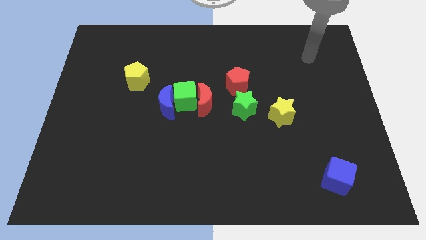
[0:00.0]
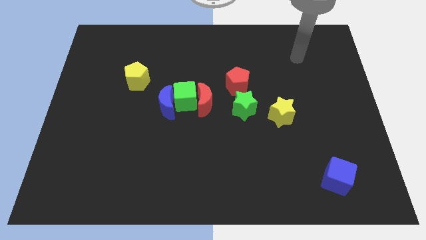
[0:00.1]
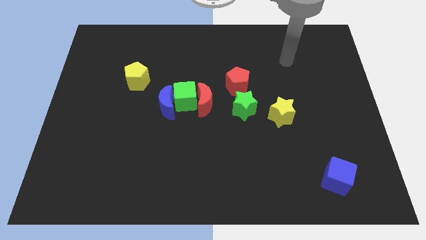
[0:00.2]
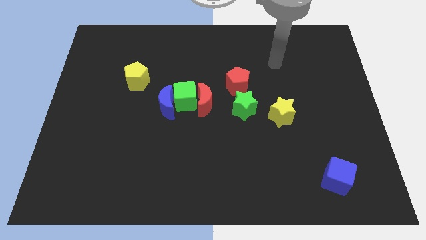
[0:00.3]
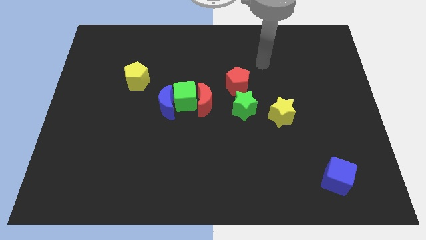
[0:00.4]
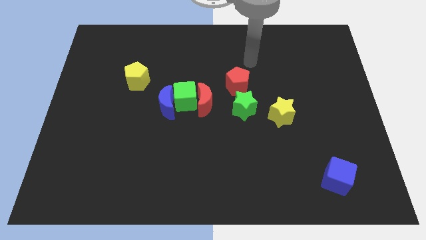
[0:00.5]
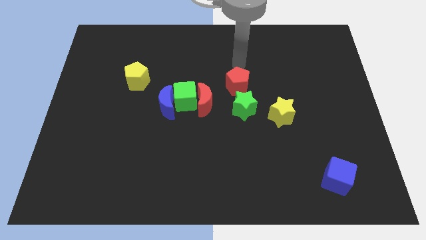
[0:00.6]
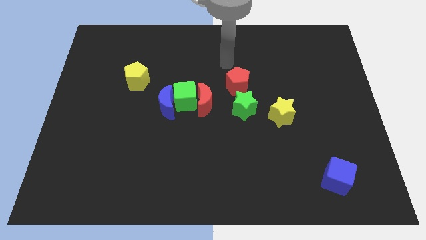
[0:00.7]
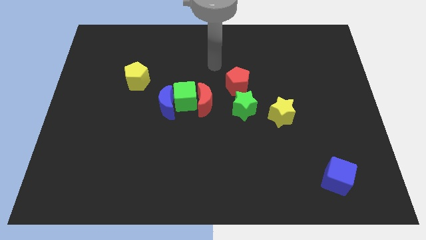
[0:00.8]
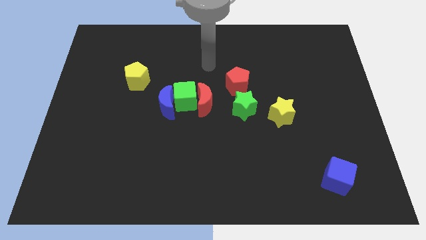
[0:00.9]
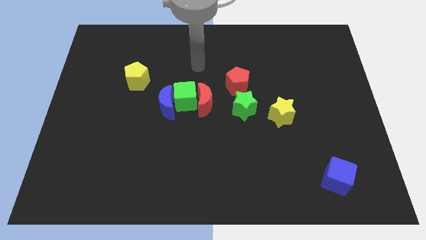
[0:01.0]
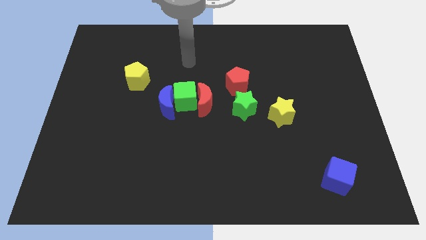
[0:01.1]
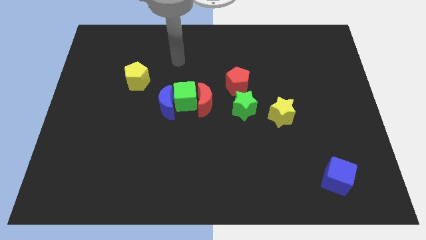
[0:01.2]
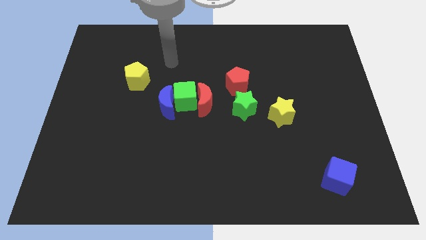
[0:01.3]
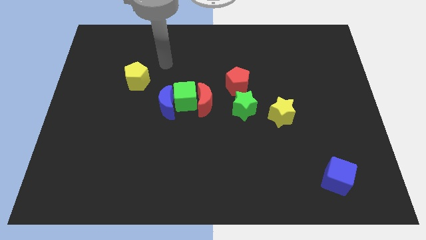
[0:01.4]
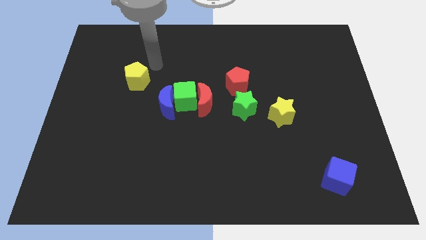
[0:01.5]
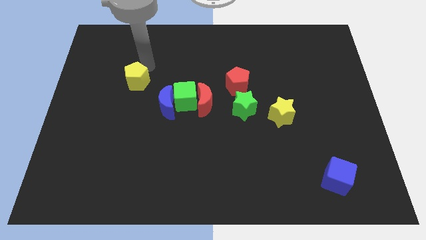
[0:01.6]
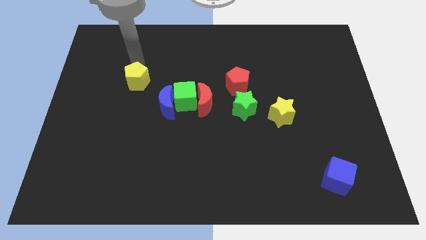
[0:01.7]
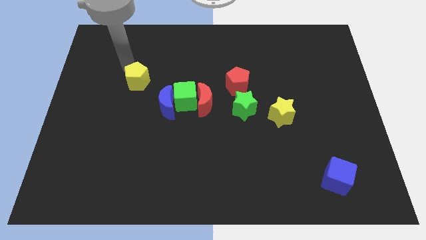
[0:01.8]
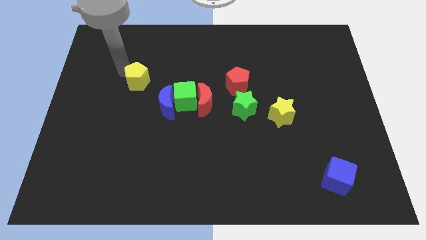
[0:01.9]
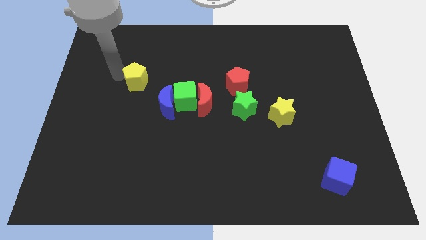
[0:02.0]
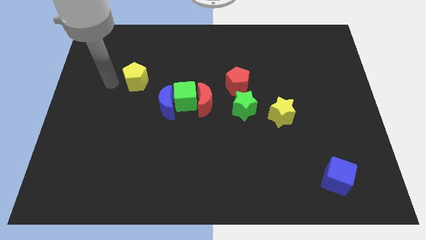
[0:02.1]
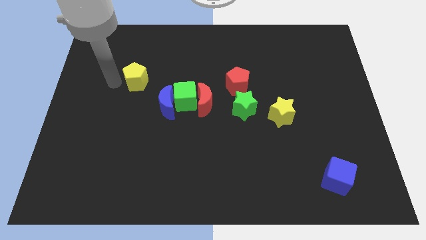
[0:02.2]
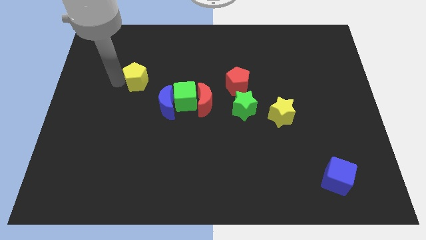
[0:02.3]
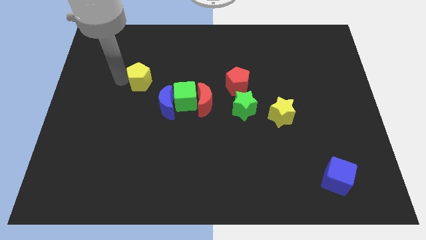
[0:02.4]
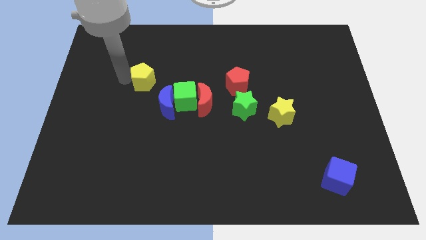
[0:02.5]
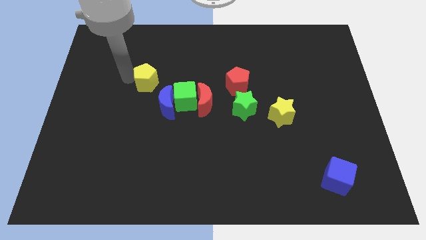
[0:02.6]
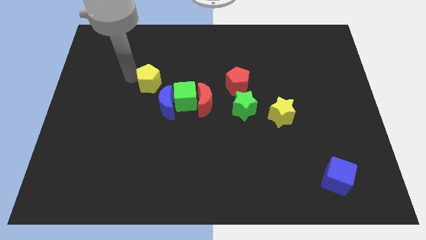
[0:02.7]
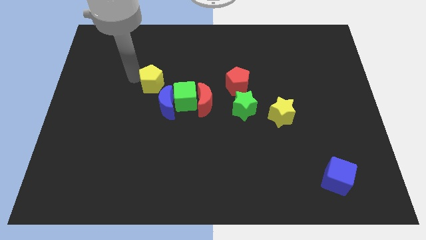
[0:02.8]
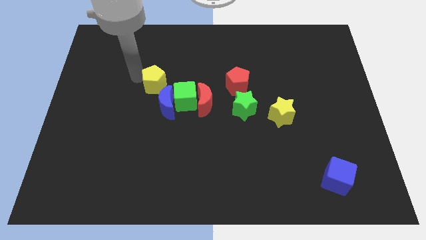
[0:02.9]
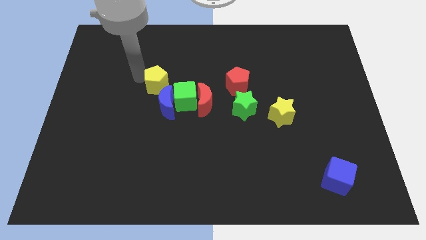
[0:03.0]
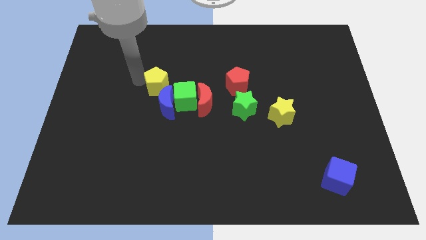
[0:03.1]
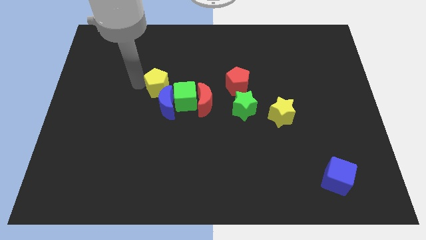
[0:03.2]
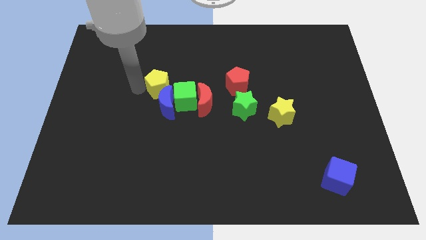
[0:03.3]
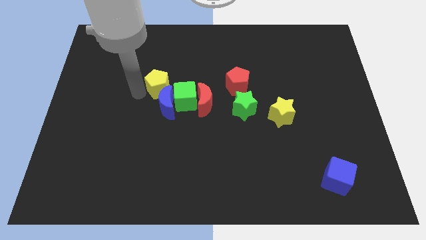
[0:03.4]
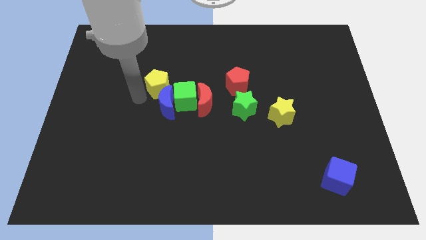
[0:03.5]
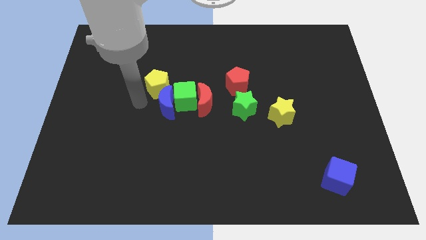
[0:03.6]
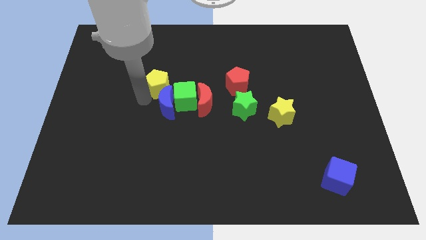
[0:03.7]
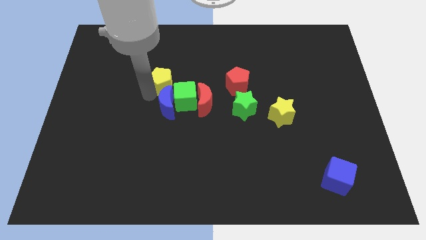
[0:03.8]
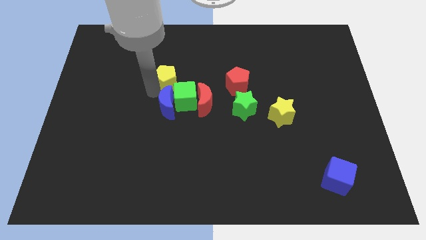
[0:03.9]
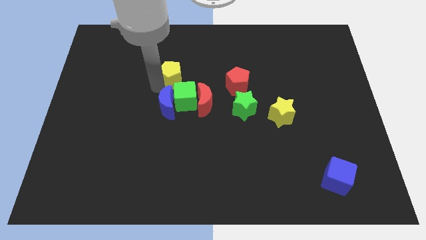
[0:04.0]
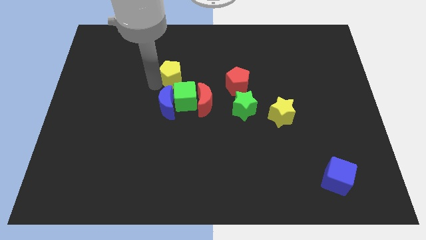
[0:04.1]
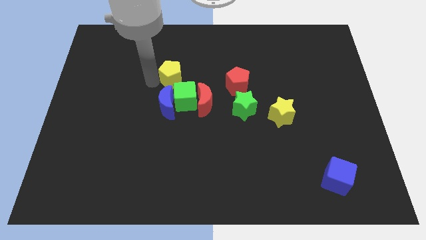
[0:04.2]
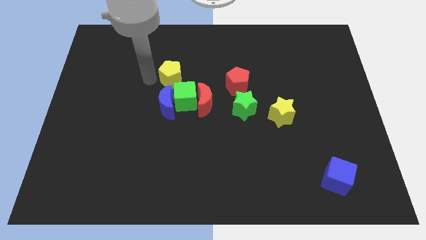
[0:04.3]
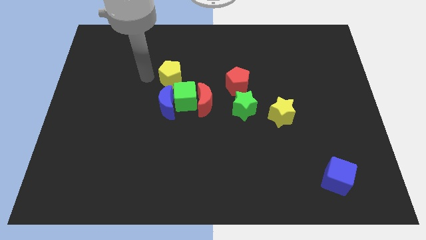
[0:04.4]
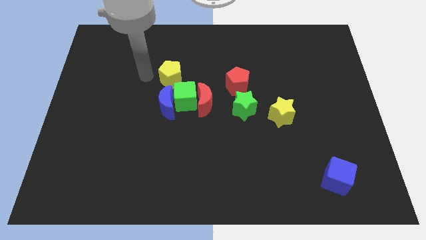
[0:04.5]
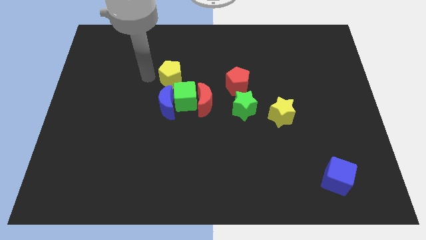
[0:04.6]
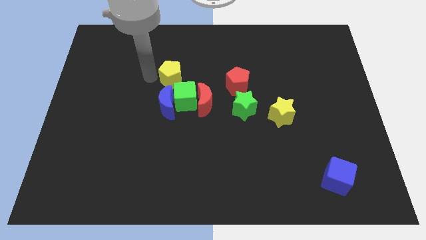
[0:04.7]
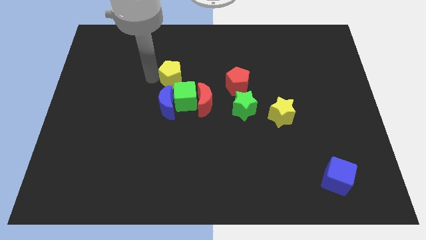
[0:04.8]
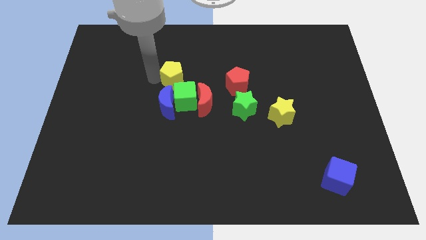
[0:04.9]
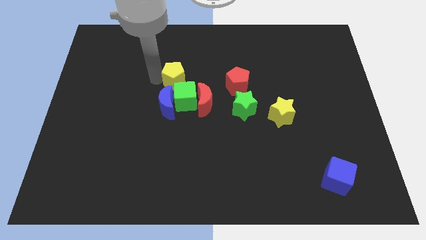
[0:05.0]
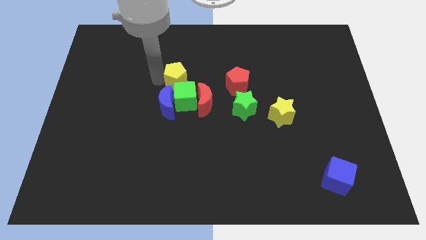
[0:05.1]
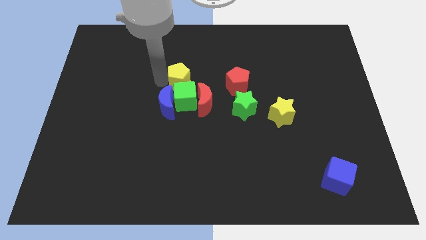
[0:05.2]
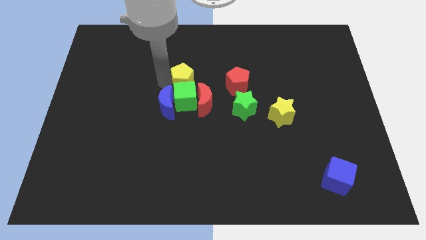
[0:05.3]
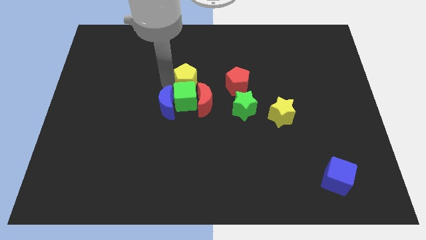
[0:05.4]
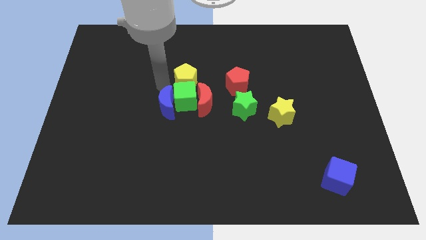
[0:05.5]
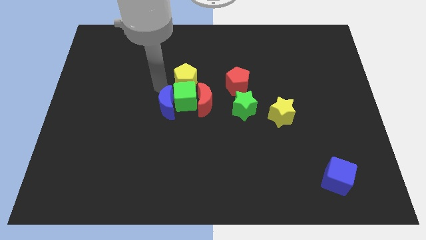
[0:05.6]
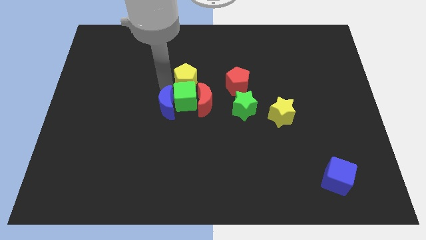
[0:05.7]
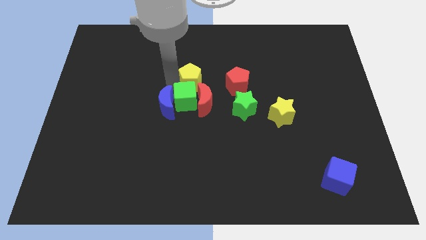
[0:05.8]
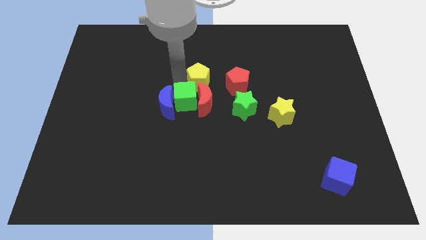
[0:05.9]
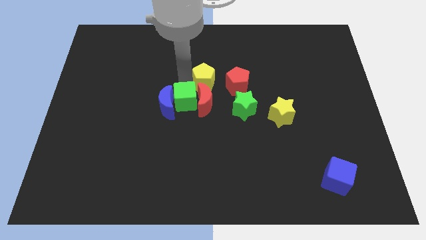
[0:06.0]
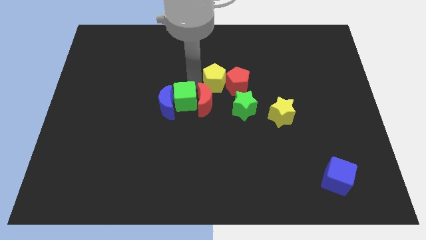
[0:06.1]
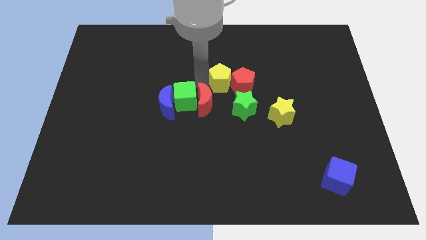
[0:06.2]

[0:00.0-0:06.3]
slide the yellow pentagon right

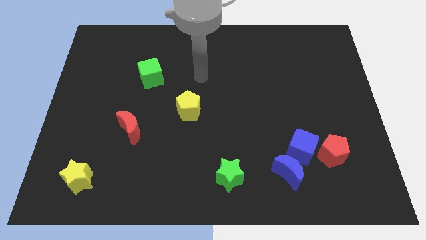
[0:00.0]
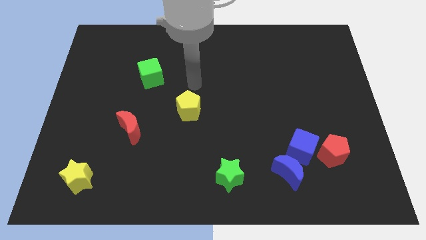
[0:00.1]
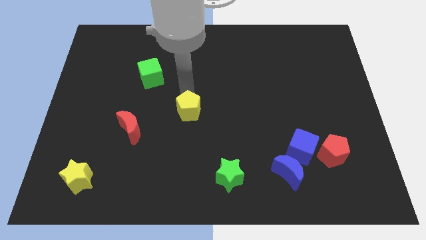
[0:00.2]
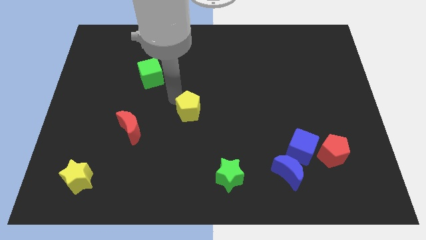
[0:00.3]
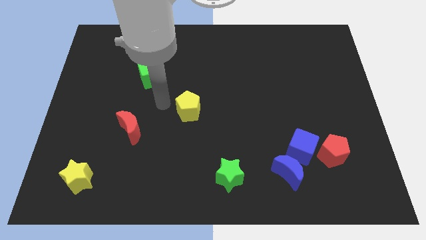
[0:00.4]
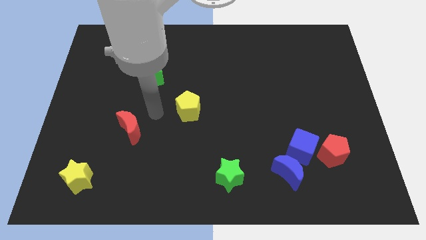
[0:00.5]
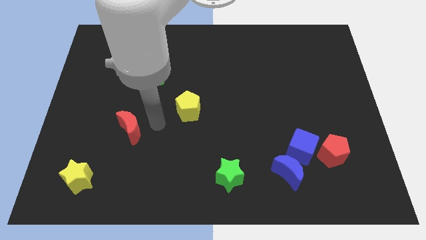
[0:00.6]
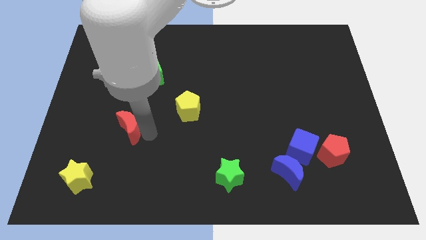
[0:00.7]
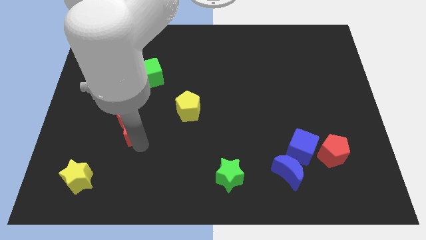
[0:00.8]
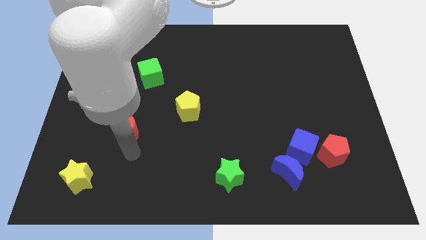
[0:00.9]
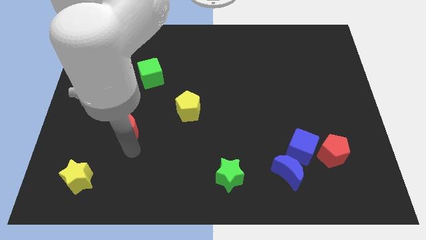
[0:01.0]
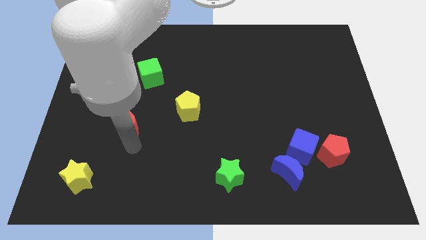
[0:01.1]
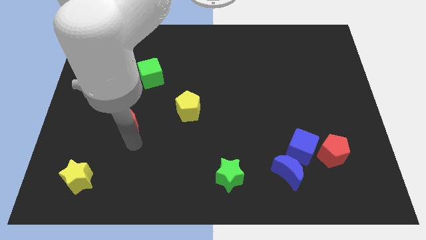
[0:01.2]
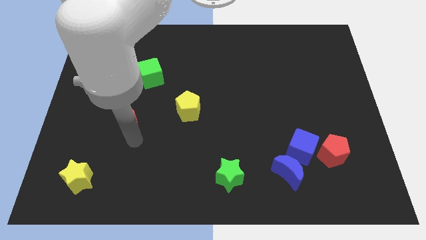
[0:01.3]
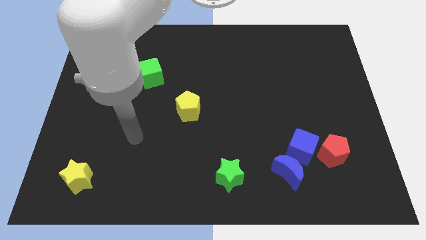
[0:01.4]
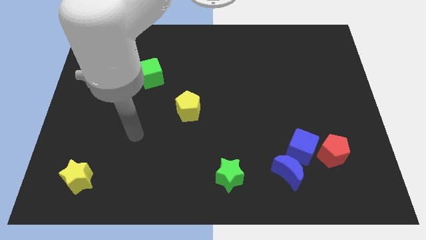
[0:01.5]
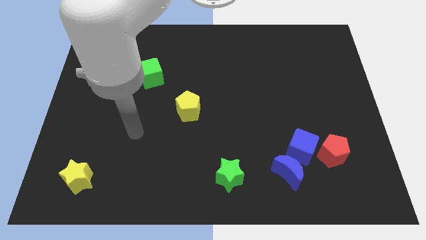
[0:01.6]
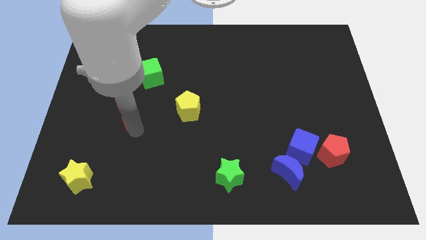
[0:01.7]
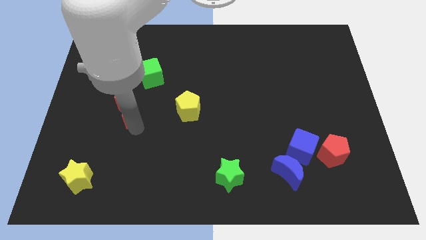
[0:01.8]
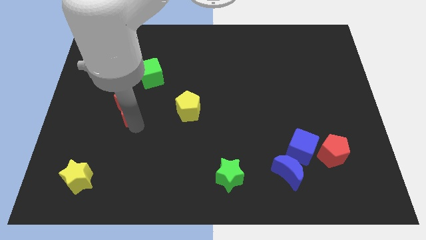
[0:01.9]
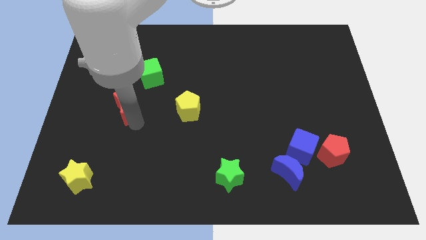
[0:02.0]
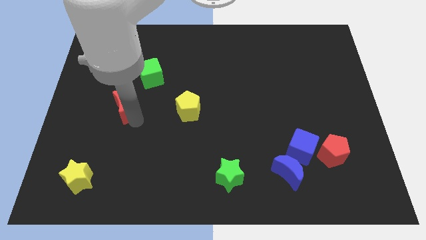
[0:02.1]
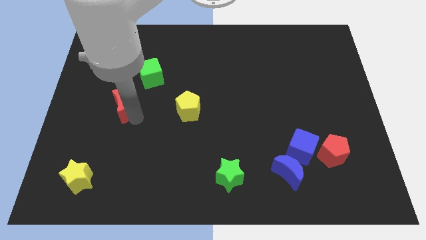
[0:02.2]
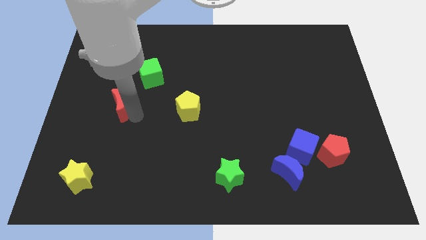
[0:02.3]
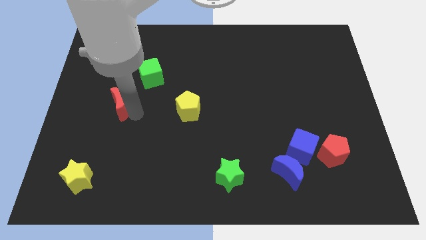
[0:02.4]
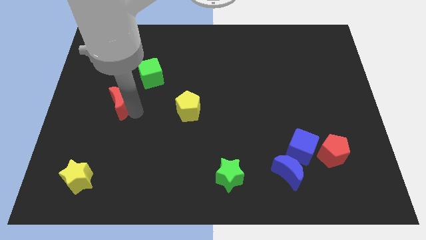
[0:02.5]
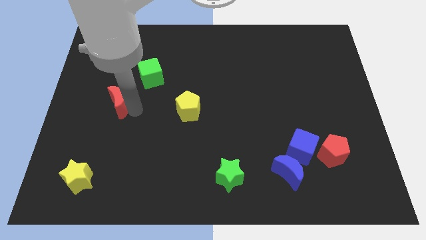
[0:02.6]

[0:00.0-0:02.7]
slightly slide the red moon upwards
